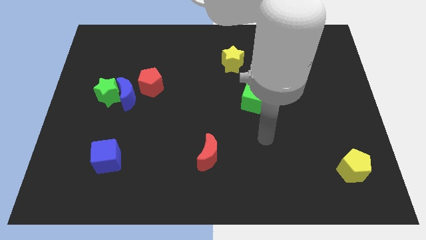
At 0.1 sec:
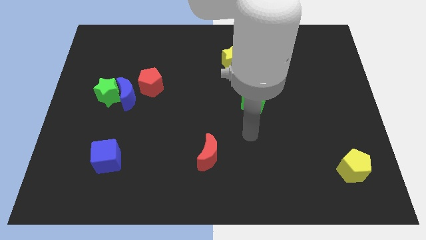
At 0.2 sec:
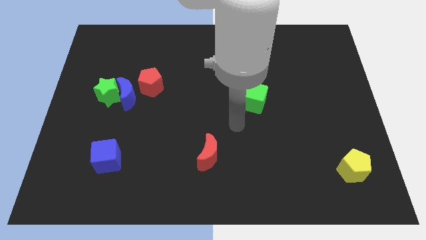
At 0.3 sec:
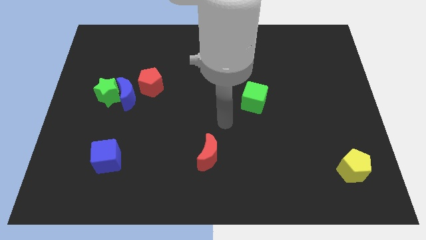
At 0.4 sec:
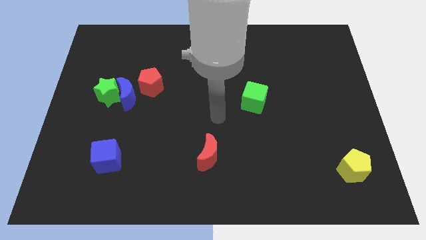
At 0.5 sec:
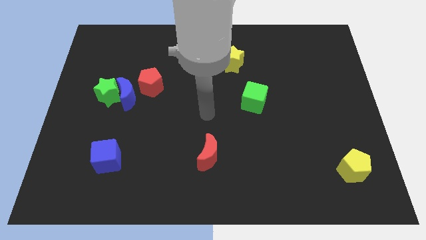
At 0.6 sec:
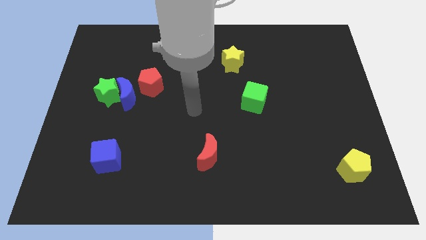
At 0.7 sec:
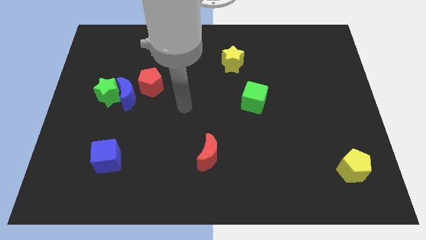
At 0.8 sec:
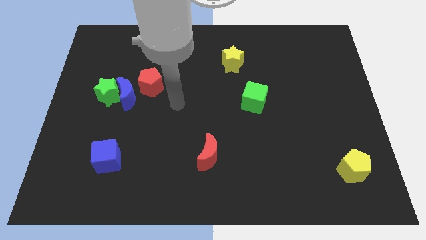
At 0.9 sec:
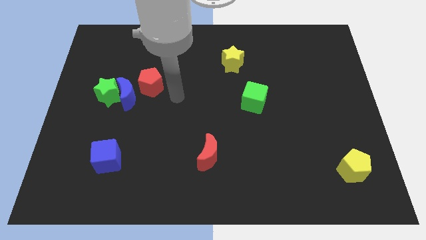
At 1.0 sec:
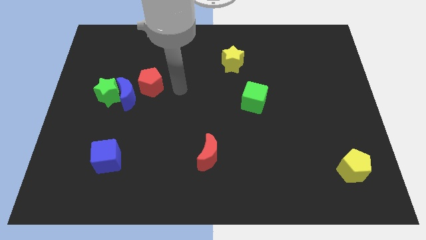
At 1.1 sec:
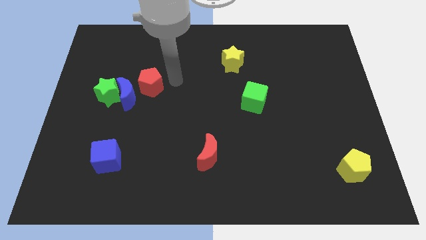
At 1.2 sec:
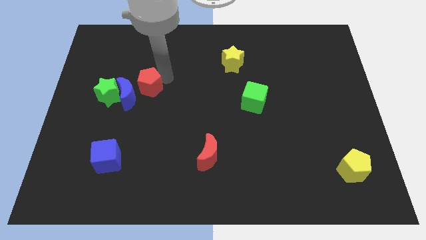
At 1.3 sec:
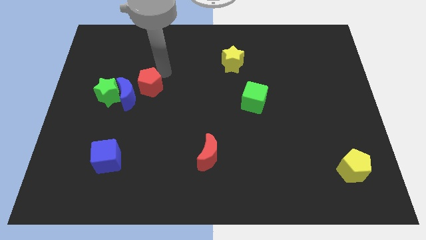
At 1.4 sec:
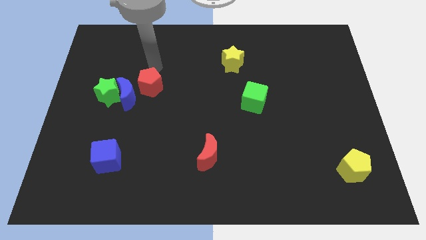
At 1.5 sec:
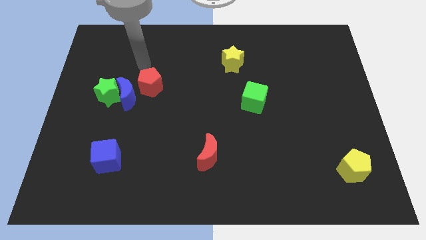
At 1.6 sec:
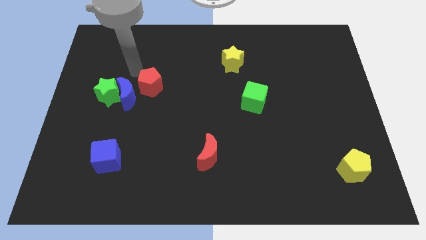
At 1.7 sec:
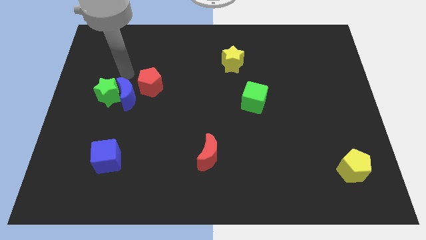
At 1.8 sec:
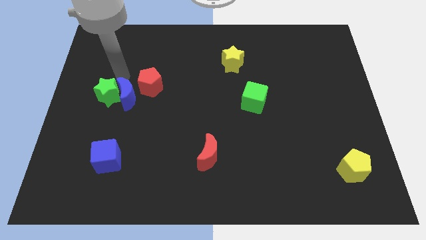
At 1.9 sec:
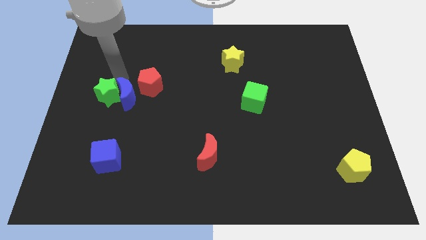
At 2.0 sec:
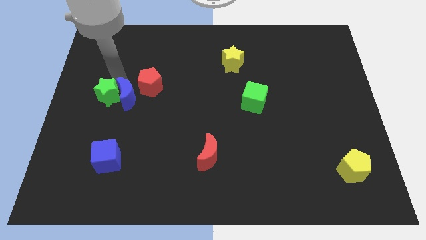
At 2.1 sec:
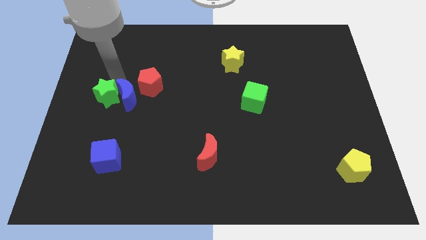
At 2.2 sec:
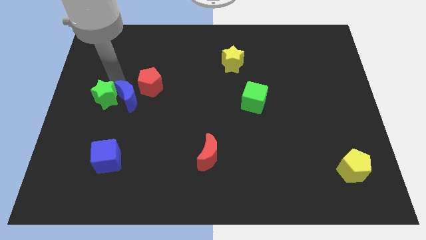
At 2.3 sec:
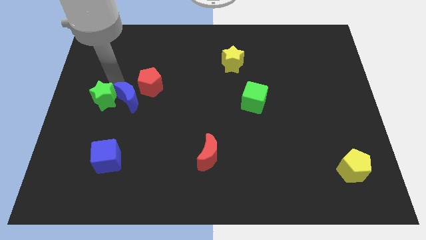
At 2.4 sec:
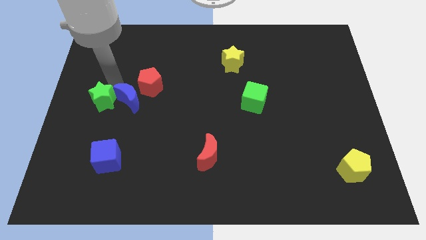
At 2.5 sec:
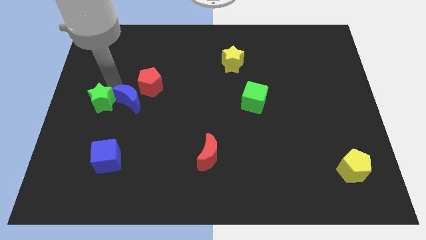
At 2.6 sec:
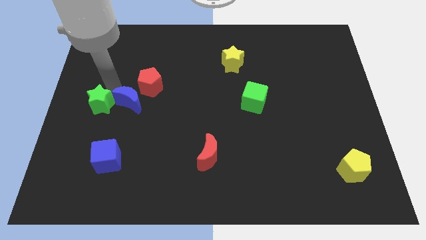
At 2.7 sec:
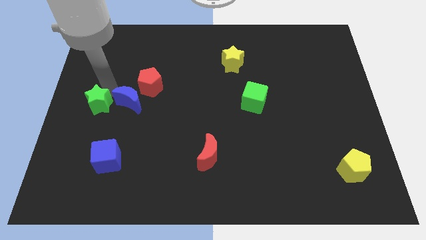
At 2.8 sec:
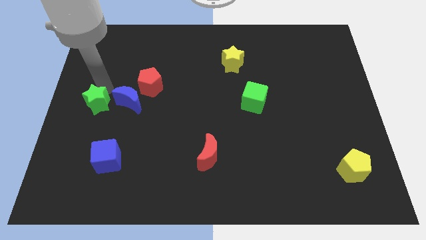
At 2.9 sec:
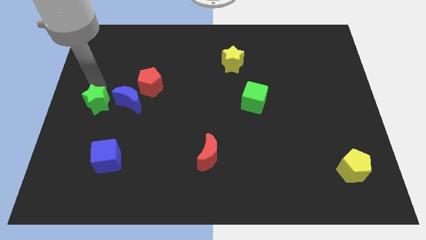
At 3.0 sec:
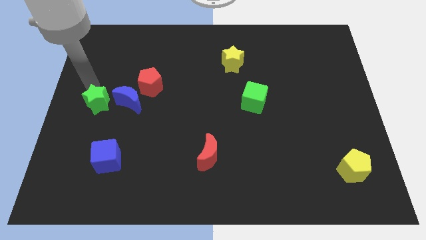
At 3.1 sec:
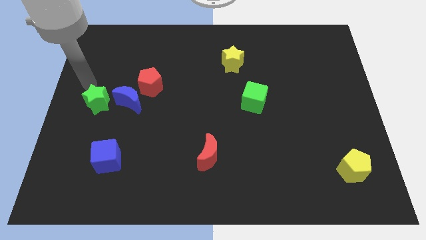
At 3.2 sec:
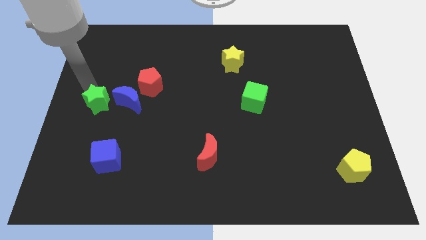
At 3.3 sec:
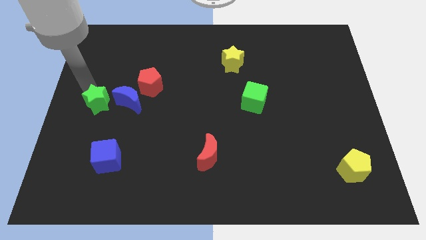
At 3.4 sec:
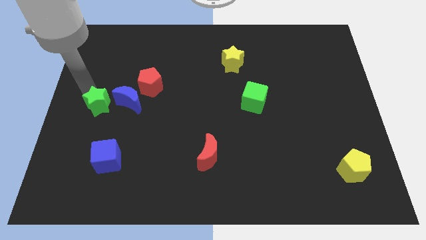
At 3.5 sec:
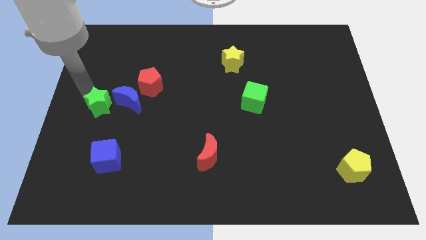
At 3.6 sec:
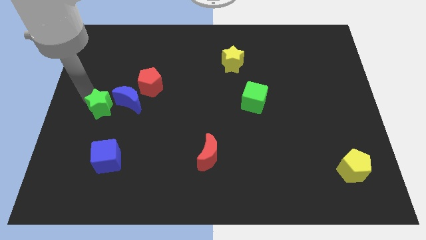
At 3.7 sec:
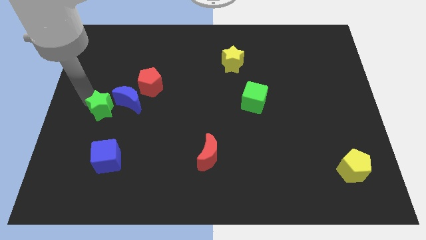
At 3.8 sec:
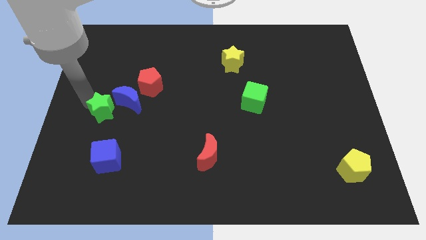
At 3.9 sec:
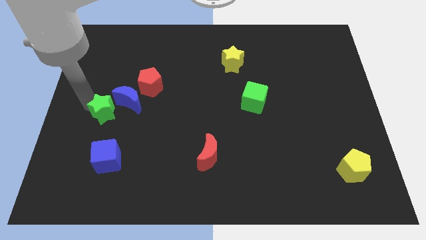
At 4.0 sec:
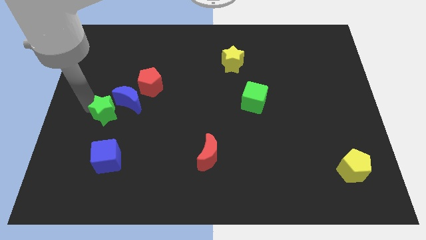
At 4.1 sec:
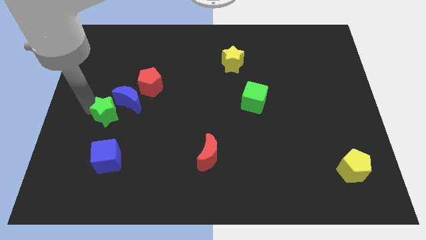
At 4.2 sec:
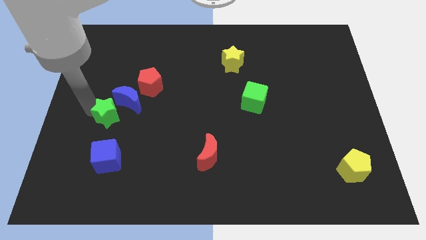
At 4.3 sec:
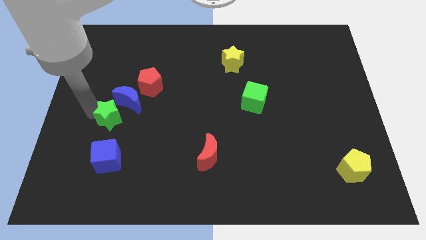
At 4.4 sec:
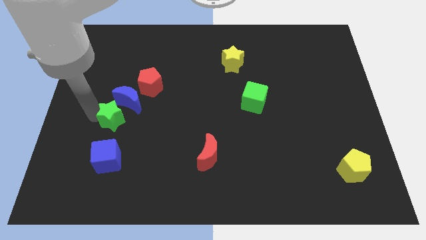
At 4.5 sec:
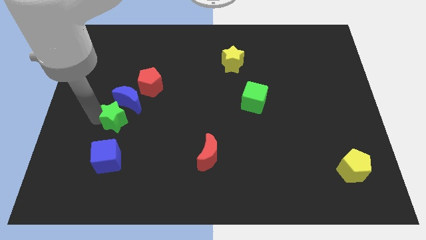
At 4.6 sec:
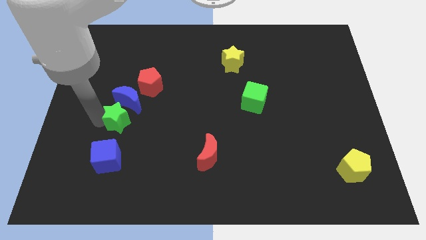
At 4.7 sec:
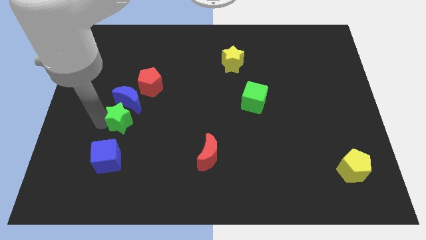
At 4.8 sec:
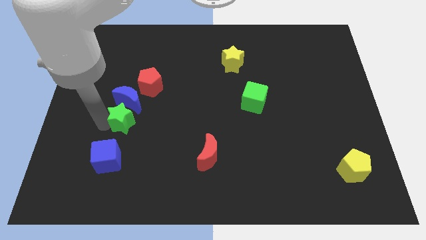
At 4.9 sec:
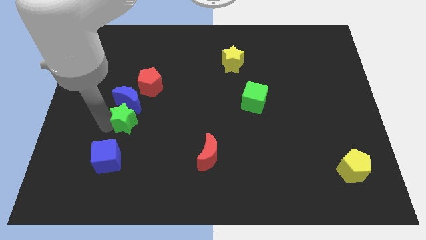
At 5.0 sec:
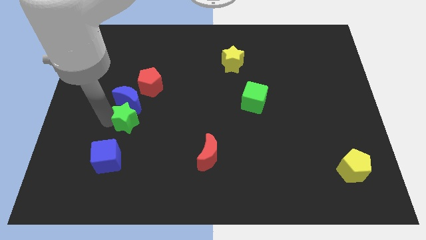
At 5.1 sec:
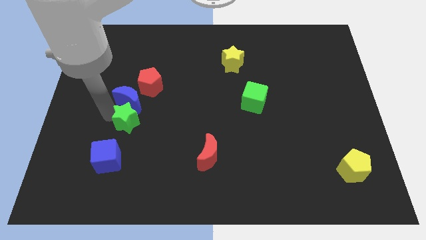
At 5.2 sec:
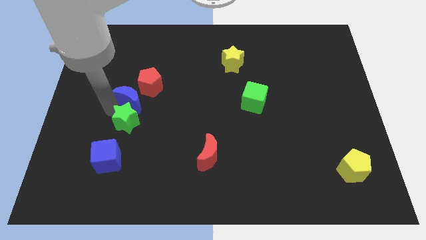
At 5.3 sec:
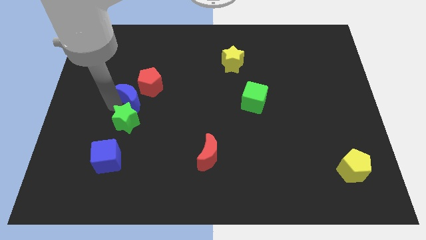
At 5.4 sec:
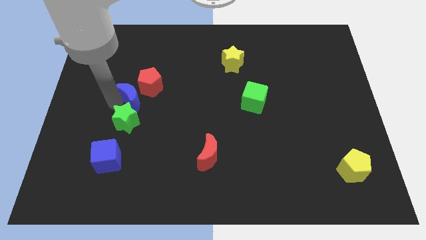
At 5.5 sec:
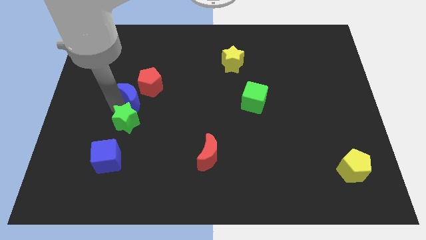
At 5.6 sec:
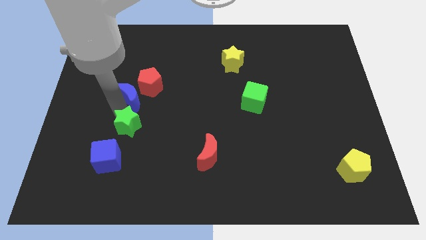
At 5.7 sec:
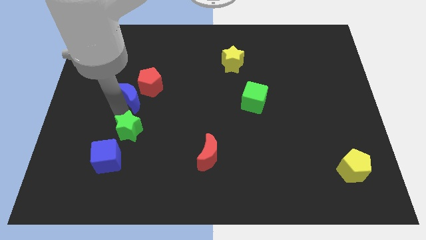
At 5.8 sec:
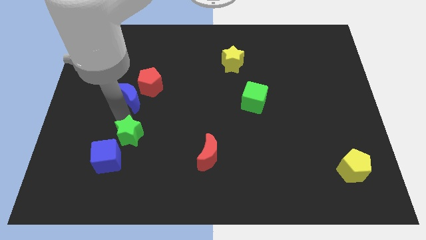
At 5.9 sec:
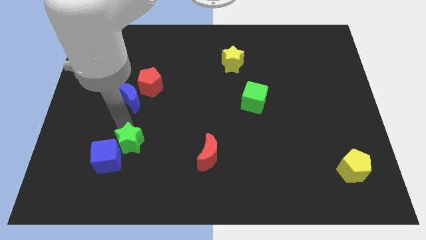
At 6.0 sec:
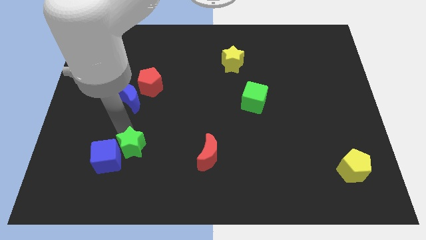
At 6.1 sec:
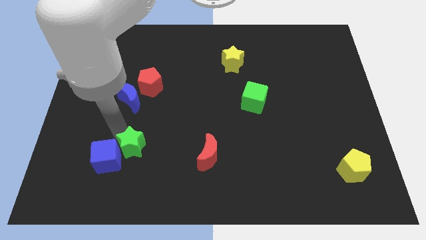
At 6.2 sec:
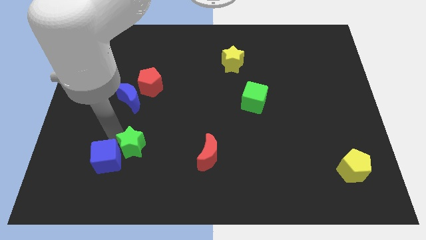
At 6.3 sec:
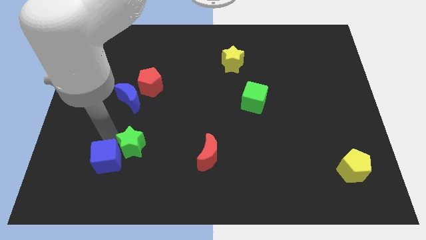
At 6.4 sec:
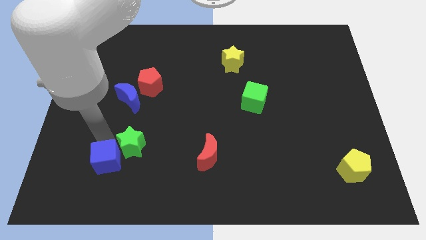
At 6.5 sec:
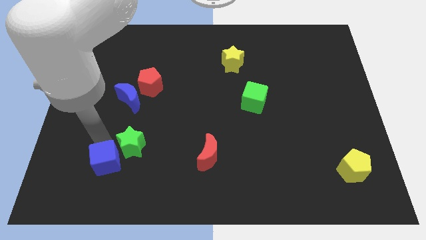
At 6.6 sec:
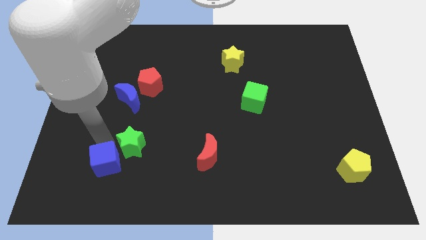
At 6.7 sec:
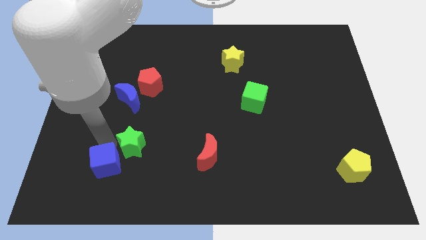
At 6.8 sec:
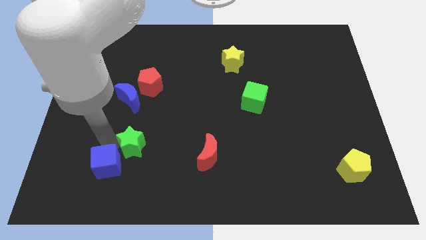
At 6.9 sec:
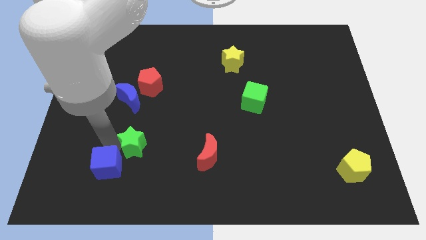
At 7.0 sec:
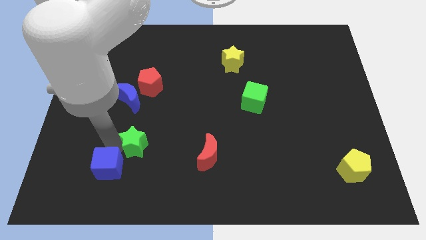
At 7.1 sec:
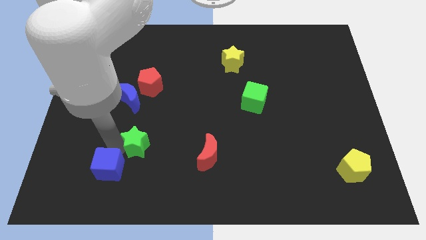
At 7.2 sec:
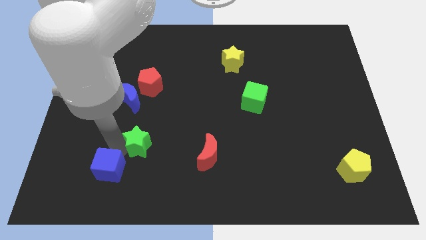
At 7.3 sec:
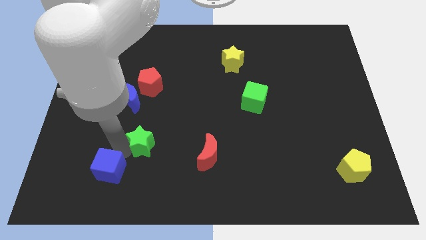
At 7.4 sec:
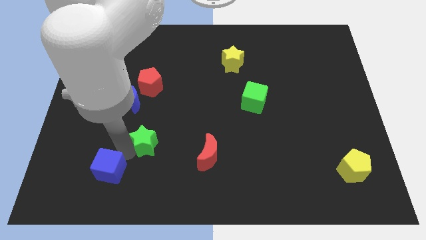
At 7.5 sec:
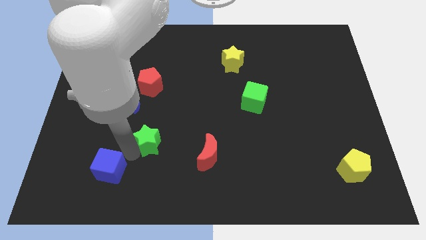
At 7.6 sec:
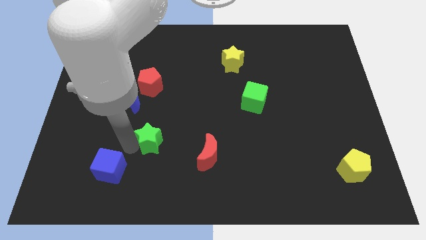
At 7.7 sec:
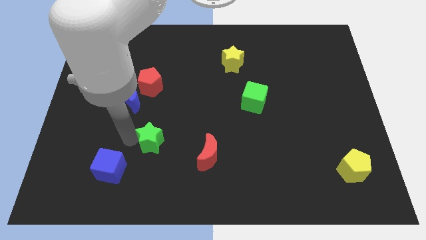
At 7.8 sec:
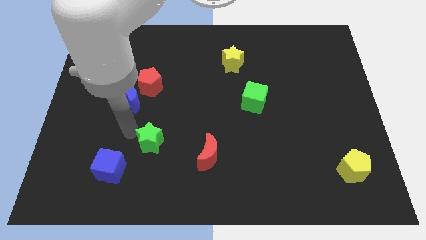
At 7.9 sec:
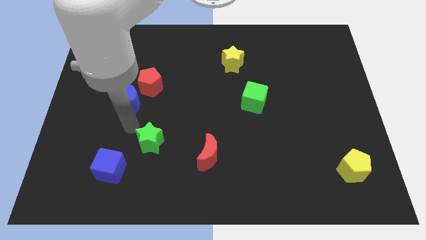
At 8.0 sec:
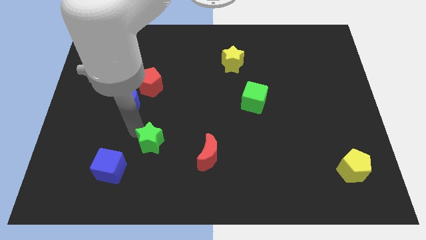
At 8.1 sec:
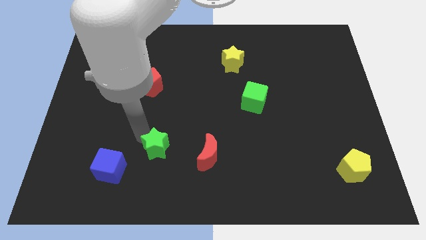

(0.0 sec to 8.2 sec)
push the green star downwards and to the right diagonally
